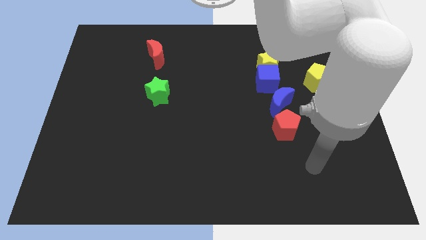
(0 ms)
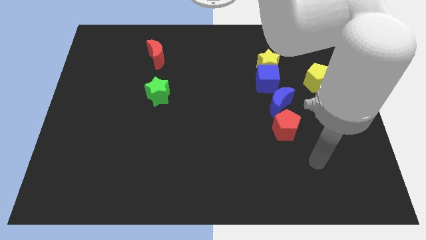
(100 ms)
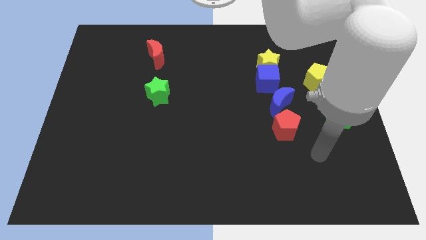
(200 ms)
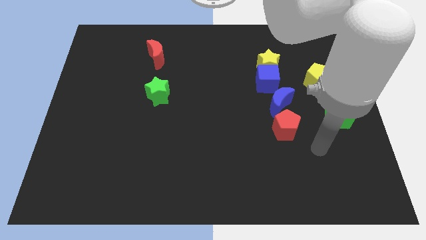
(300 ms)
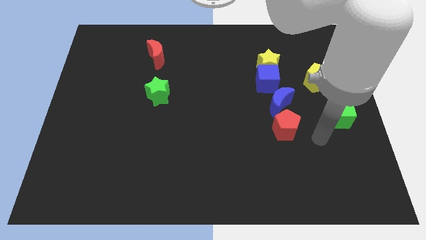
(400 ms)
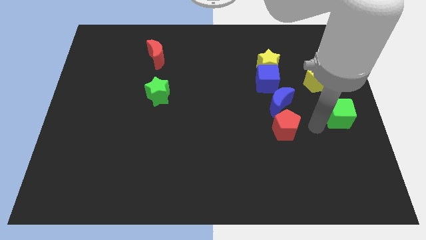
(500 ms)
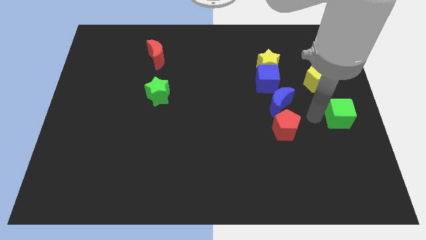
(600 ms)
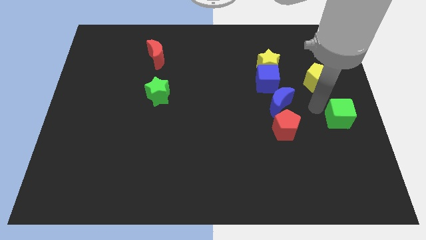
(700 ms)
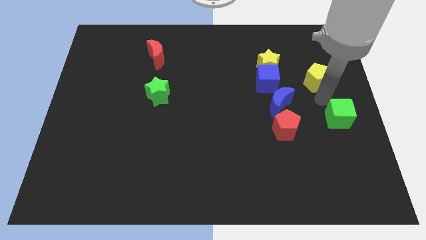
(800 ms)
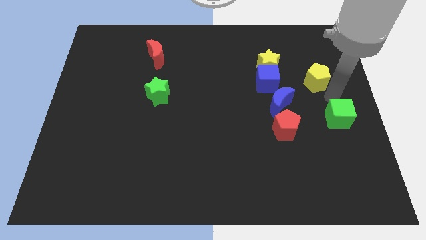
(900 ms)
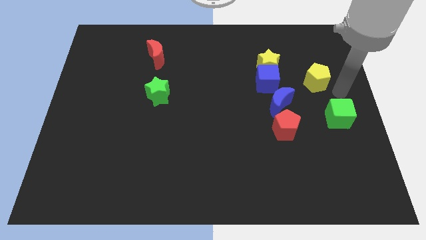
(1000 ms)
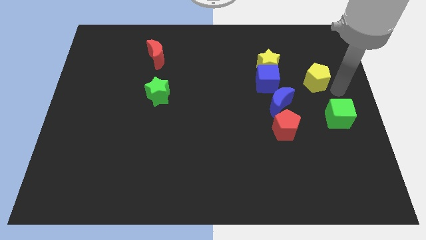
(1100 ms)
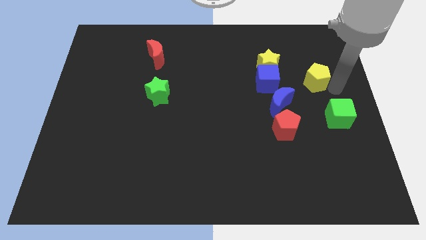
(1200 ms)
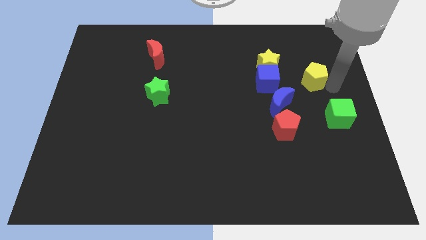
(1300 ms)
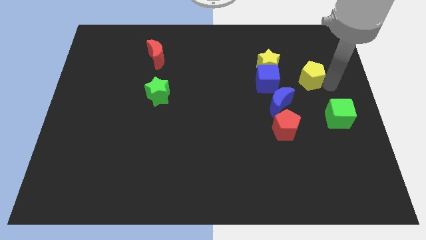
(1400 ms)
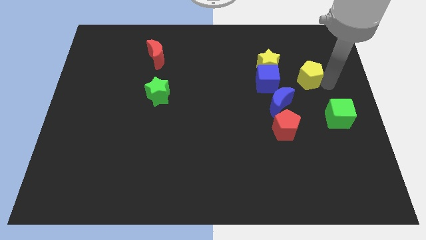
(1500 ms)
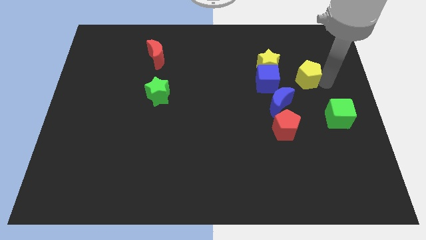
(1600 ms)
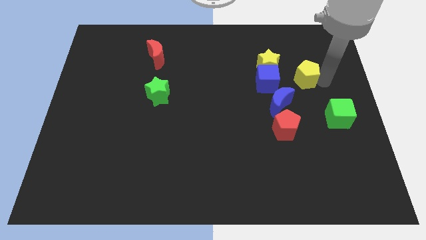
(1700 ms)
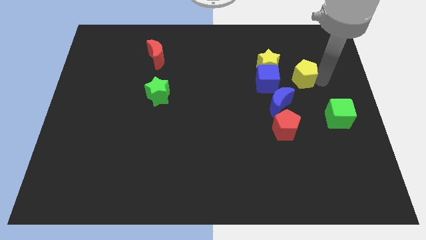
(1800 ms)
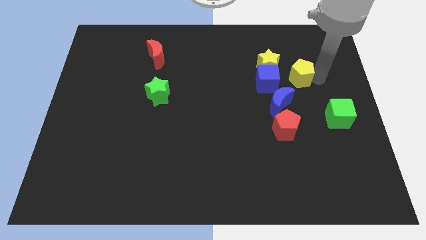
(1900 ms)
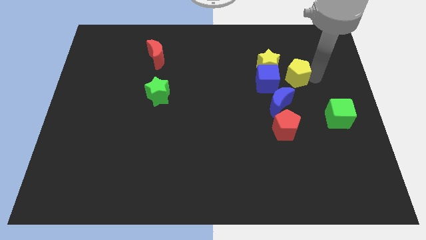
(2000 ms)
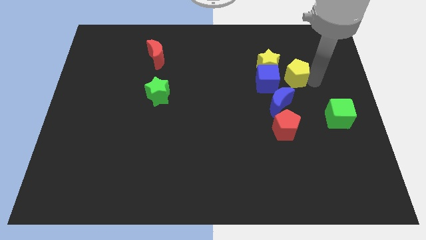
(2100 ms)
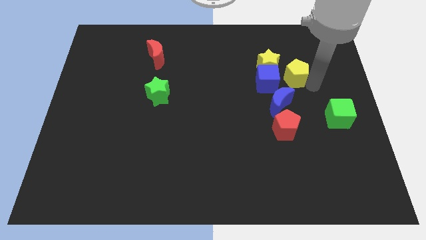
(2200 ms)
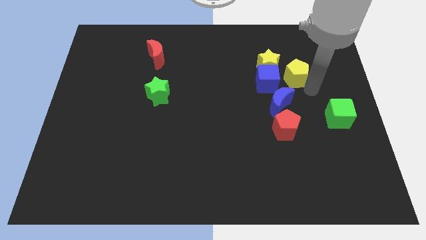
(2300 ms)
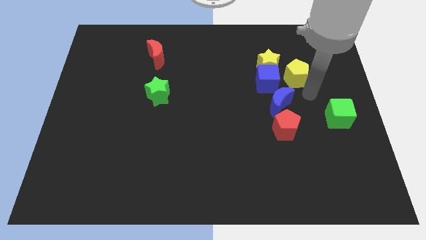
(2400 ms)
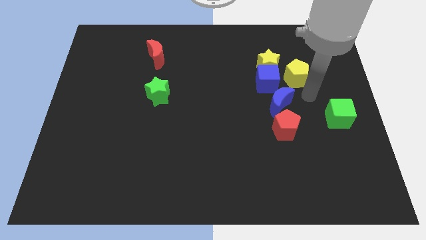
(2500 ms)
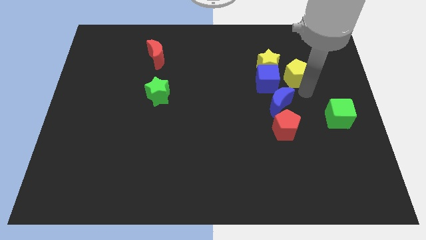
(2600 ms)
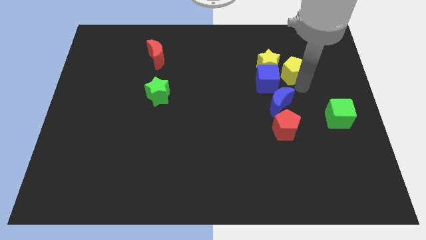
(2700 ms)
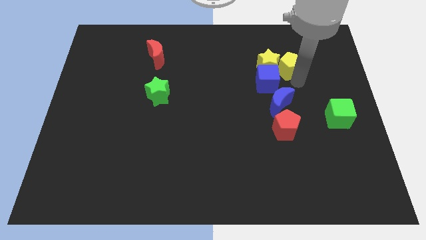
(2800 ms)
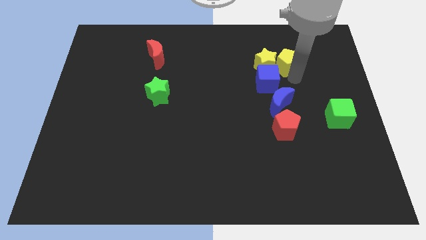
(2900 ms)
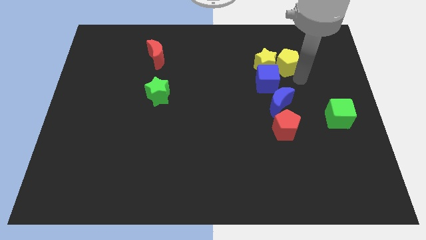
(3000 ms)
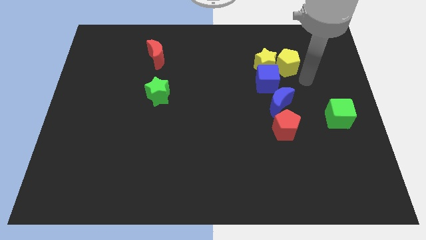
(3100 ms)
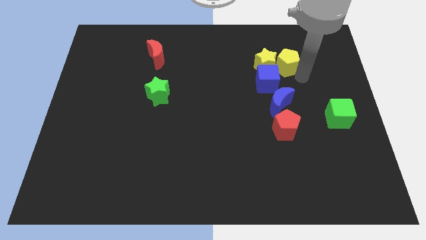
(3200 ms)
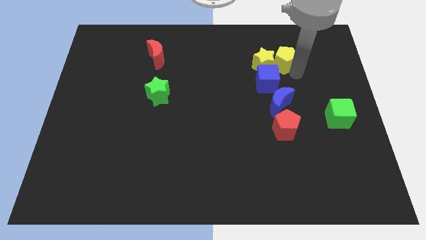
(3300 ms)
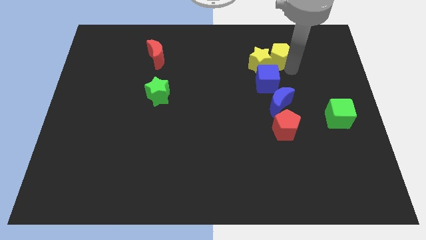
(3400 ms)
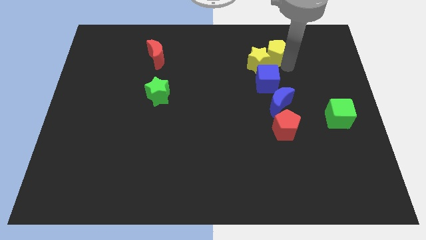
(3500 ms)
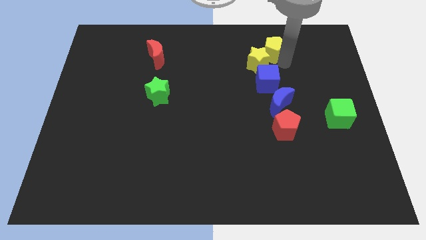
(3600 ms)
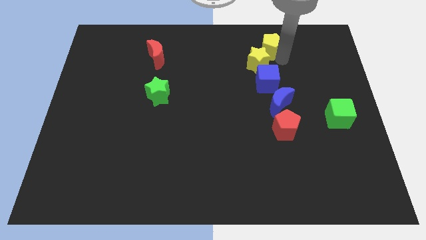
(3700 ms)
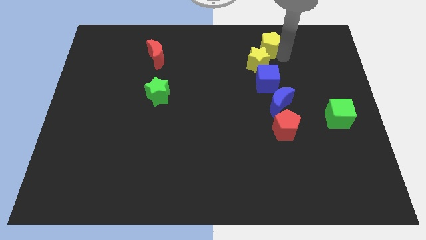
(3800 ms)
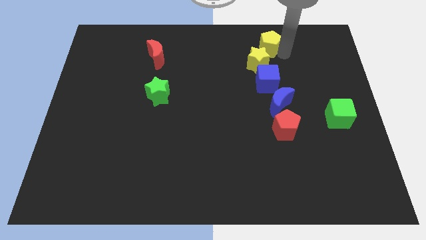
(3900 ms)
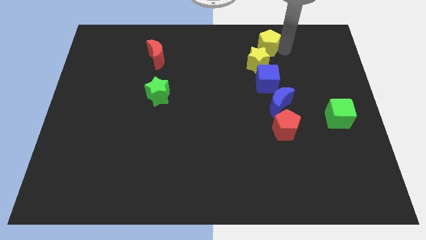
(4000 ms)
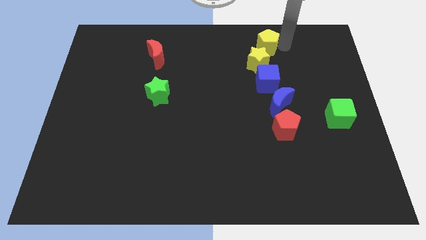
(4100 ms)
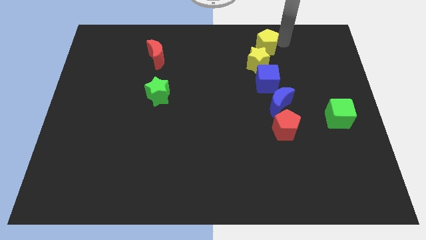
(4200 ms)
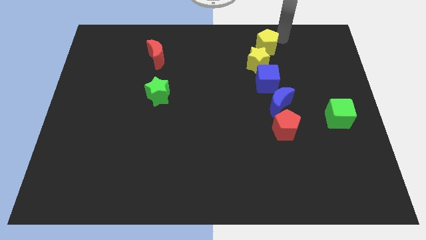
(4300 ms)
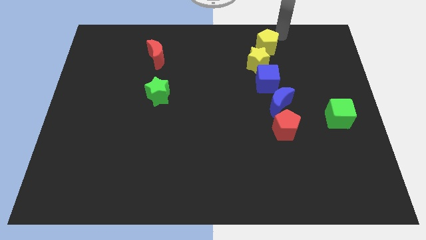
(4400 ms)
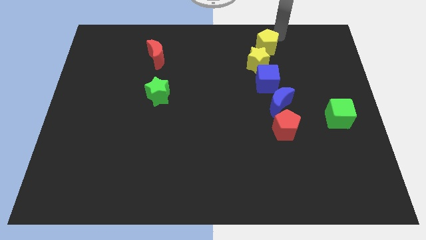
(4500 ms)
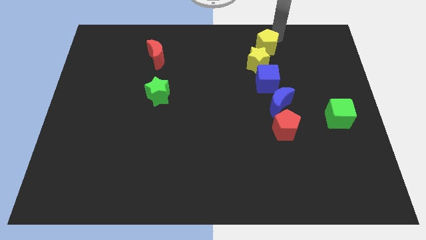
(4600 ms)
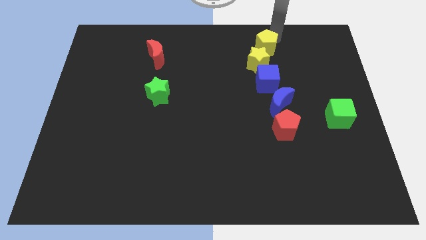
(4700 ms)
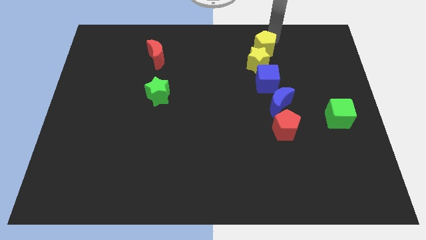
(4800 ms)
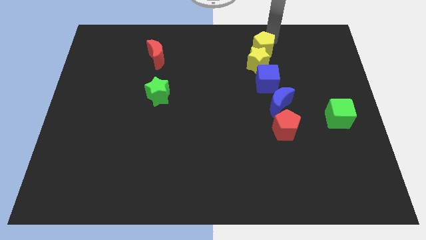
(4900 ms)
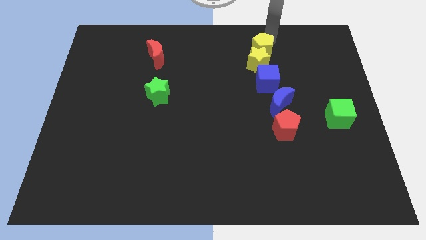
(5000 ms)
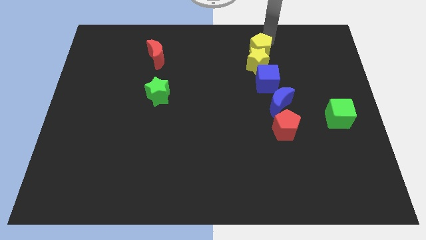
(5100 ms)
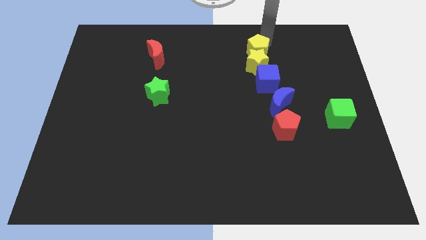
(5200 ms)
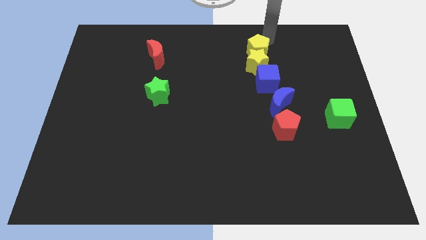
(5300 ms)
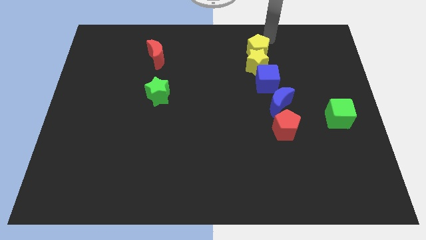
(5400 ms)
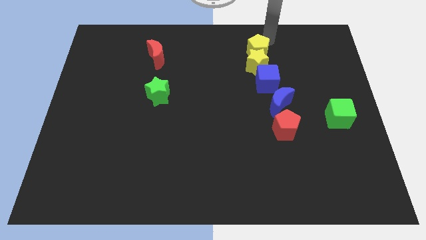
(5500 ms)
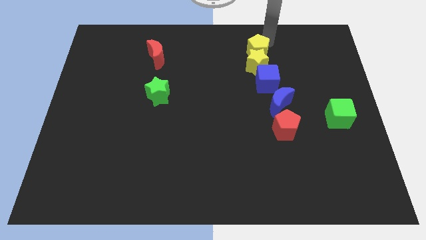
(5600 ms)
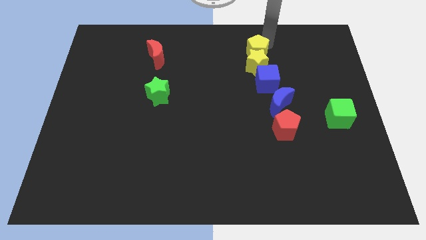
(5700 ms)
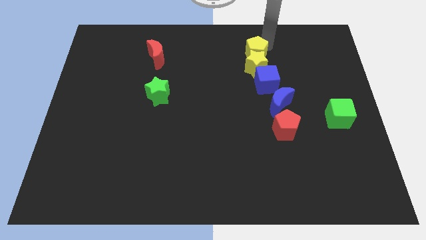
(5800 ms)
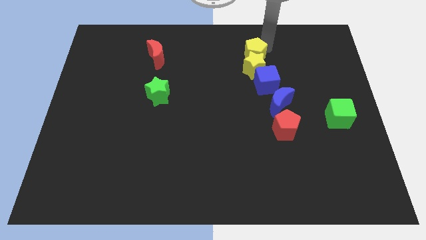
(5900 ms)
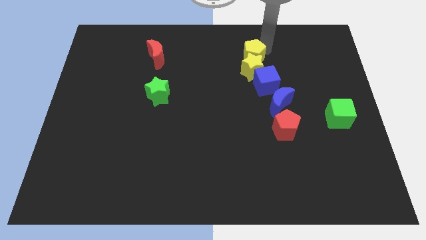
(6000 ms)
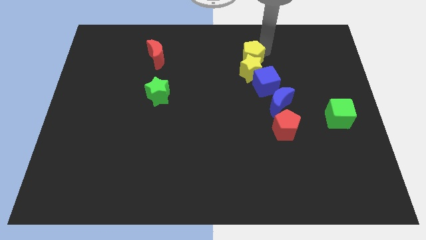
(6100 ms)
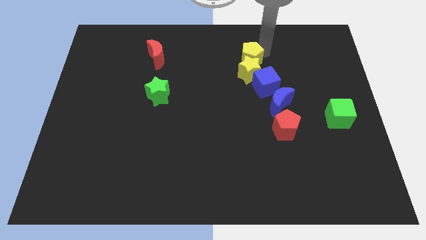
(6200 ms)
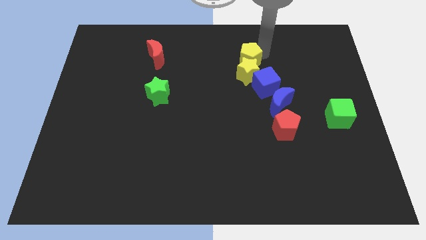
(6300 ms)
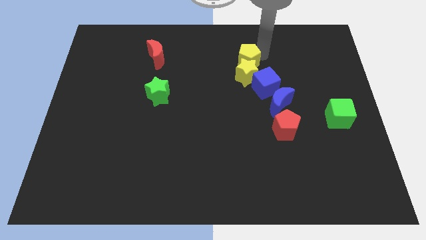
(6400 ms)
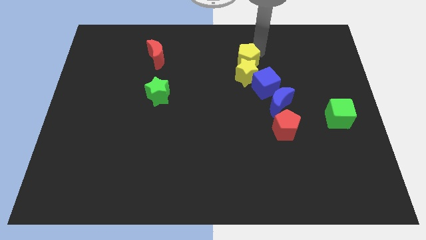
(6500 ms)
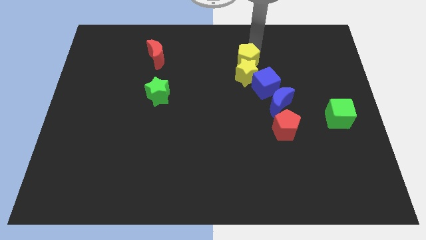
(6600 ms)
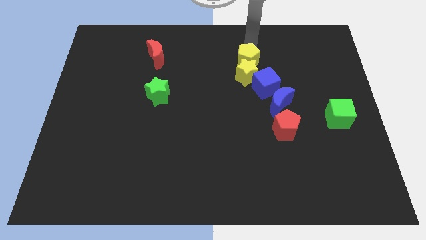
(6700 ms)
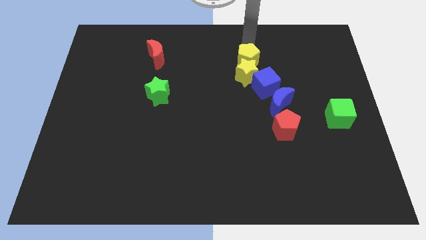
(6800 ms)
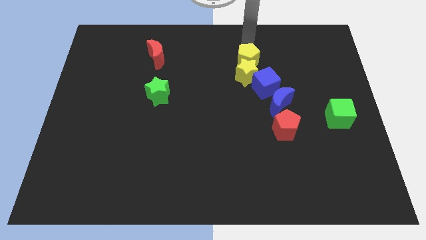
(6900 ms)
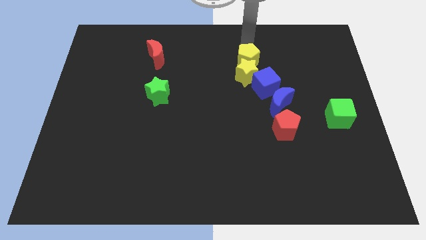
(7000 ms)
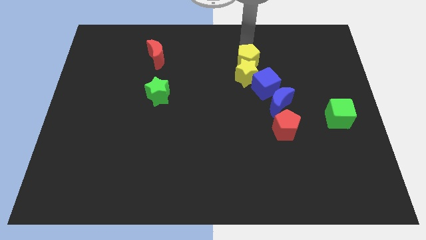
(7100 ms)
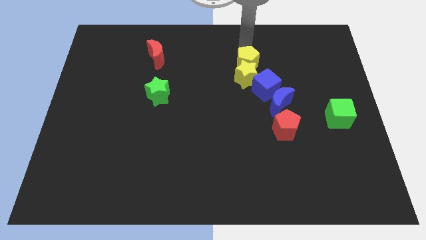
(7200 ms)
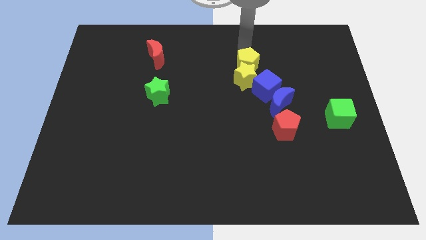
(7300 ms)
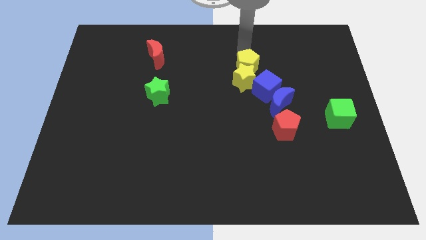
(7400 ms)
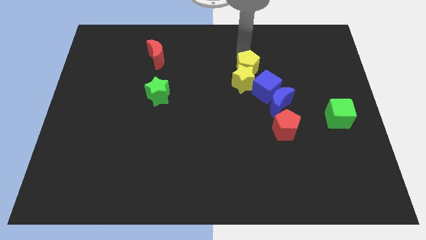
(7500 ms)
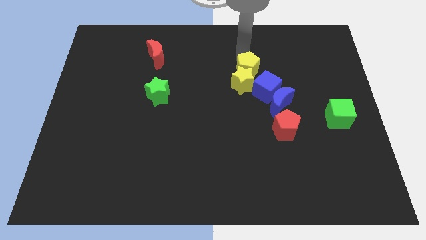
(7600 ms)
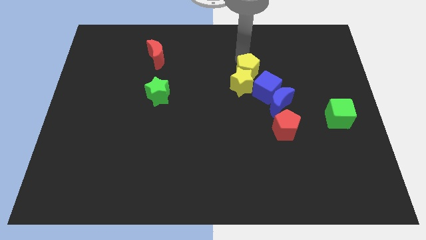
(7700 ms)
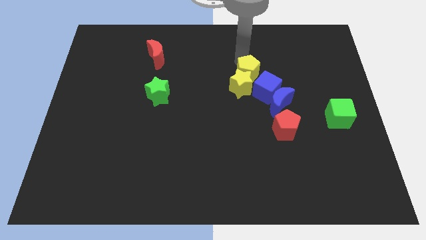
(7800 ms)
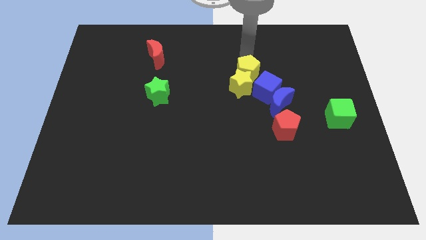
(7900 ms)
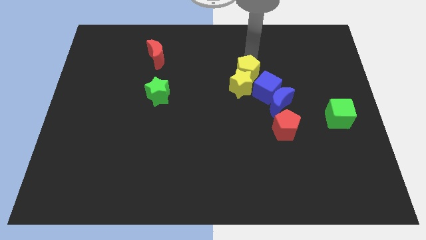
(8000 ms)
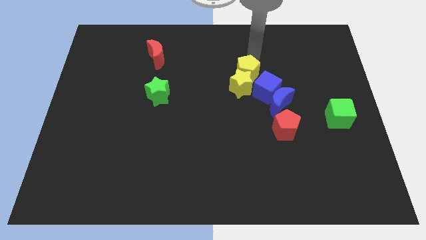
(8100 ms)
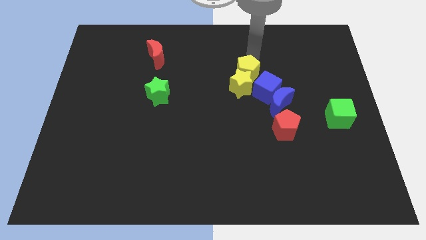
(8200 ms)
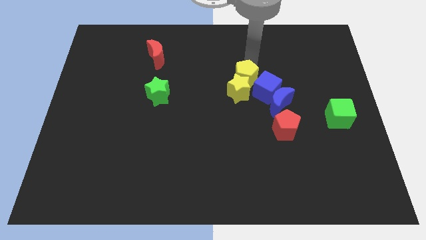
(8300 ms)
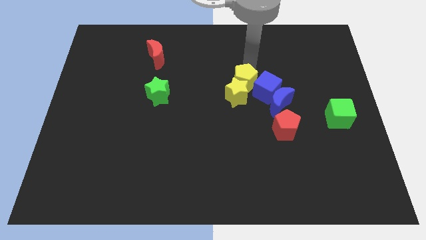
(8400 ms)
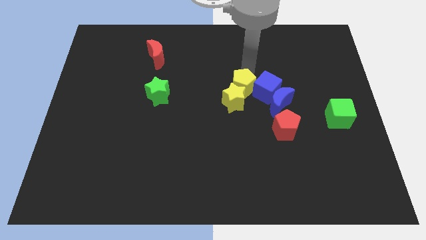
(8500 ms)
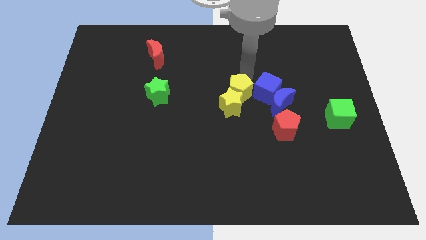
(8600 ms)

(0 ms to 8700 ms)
move the yellow pentagon just left of the blue moon
